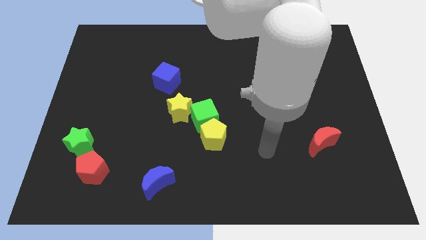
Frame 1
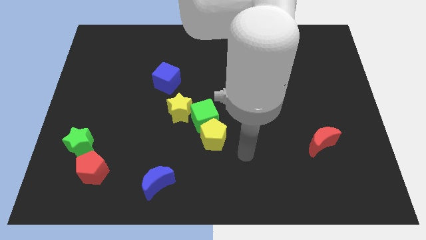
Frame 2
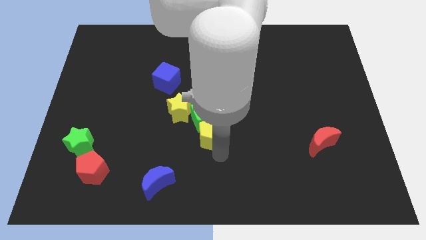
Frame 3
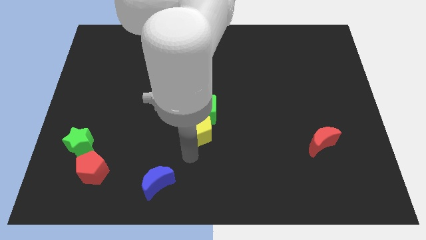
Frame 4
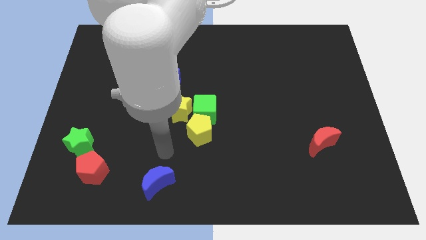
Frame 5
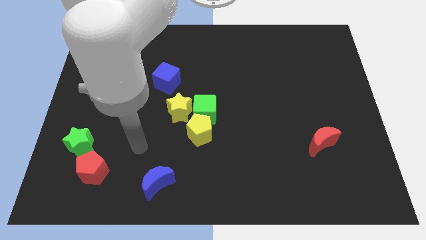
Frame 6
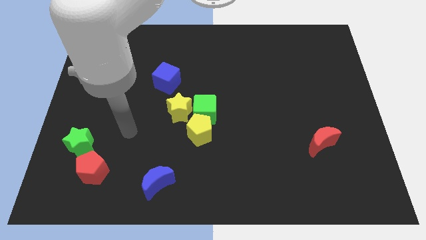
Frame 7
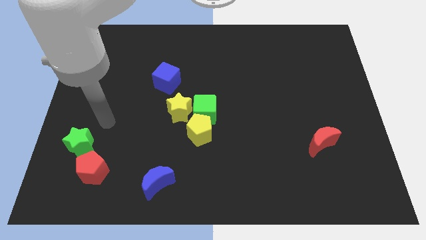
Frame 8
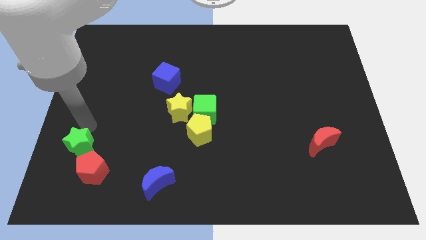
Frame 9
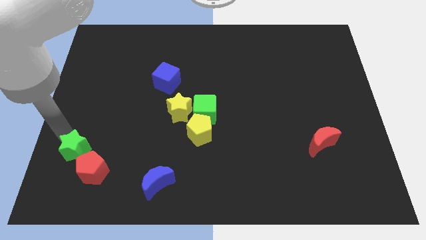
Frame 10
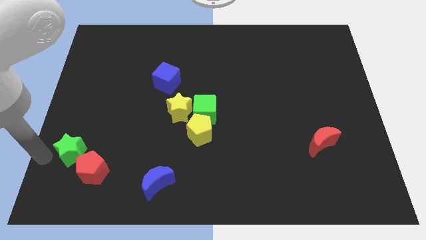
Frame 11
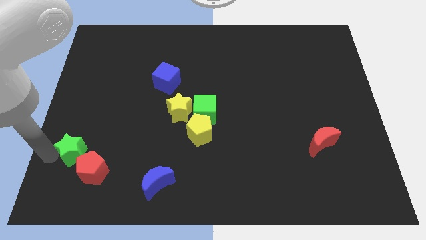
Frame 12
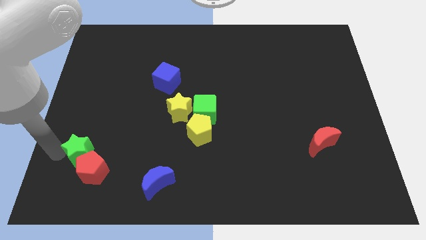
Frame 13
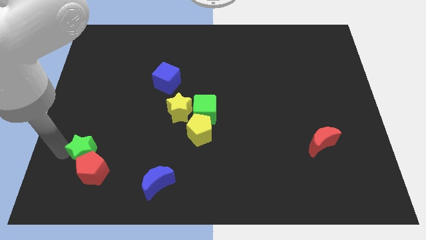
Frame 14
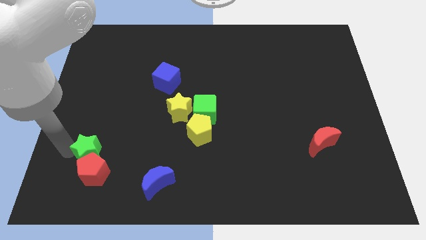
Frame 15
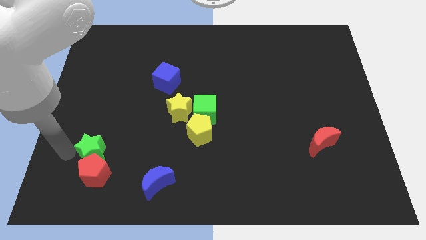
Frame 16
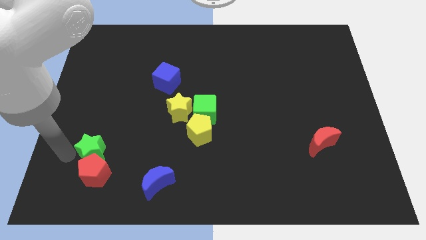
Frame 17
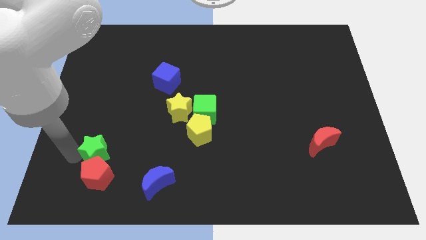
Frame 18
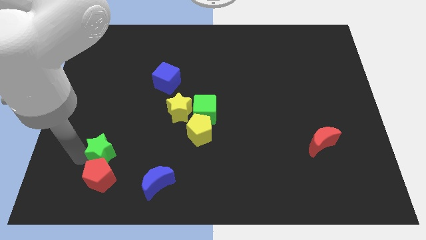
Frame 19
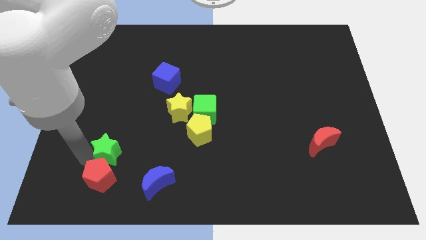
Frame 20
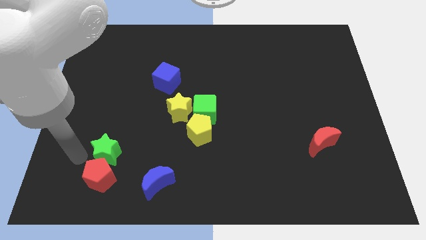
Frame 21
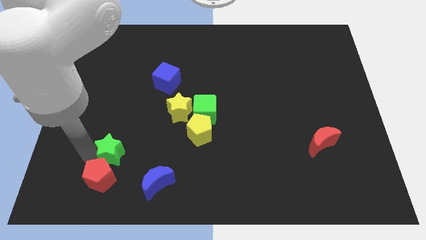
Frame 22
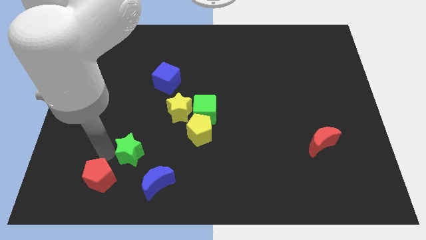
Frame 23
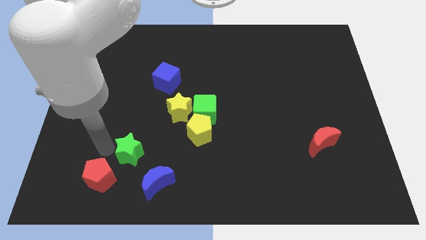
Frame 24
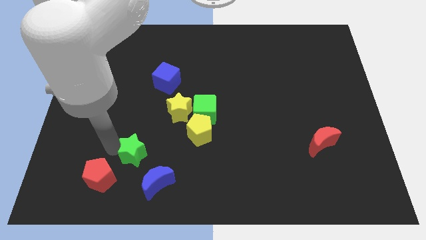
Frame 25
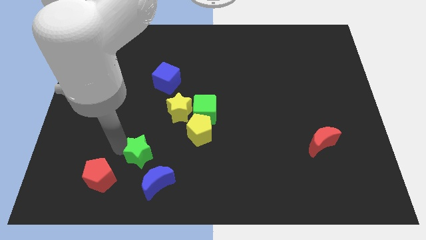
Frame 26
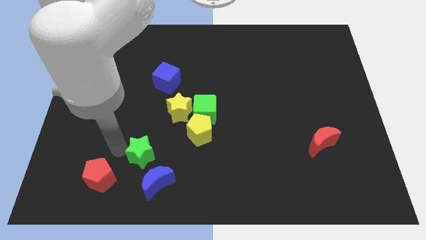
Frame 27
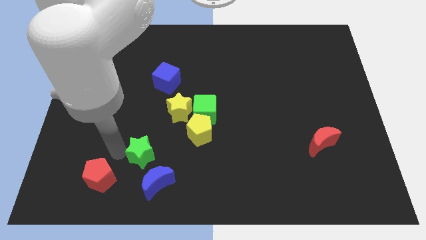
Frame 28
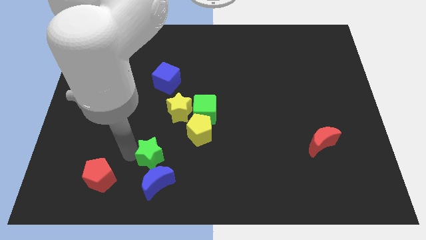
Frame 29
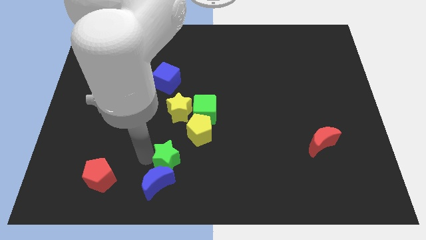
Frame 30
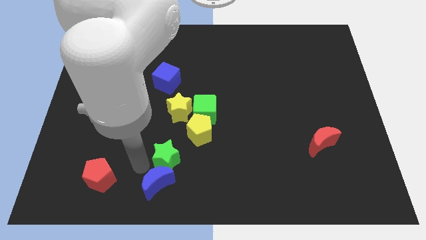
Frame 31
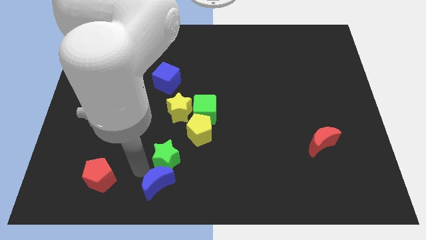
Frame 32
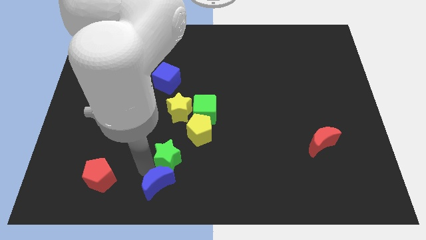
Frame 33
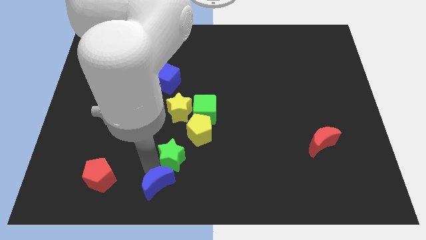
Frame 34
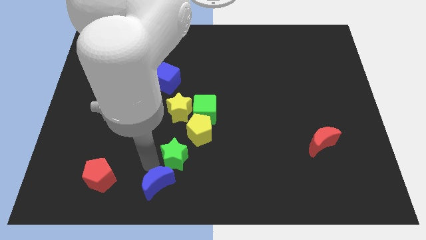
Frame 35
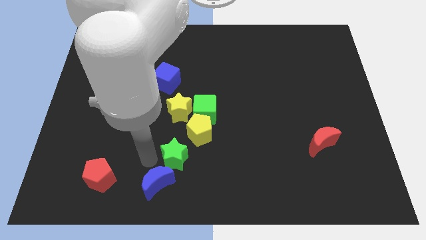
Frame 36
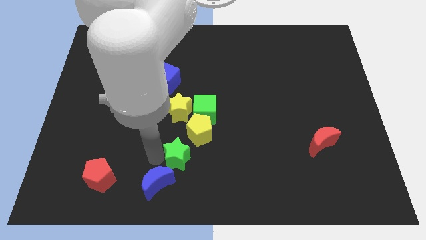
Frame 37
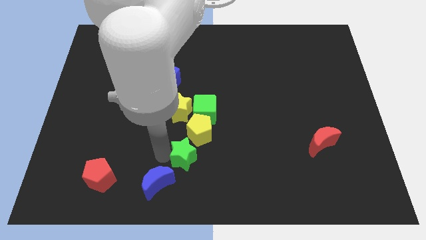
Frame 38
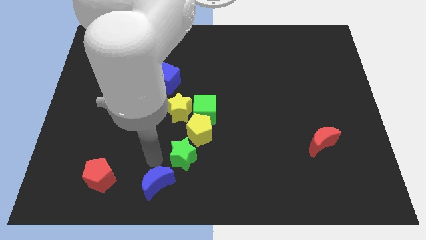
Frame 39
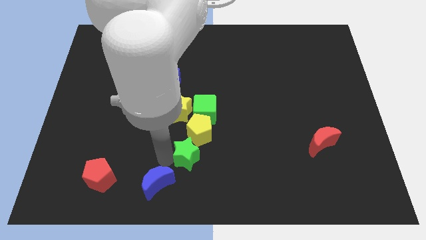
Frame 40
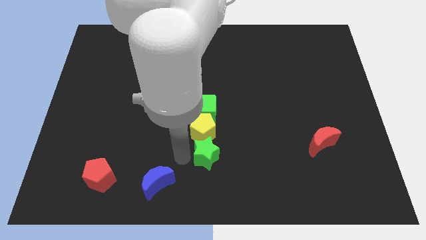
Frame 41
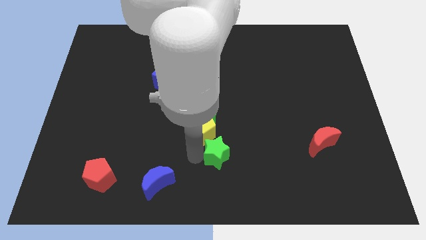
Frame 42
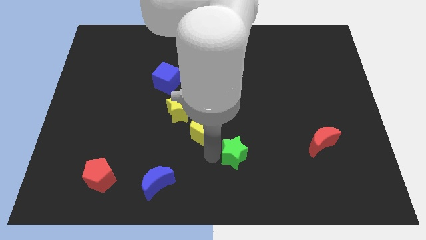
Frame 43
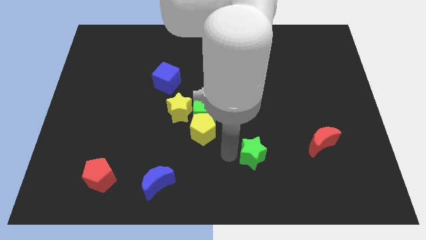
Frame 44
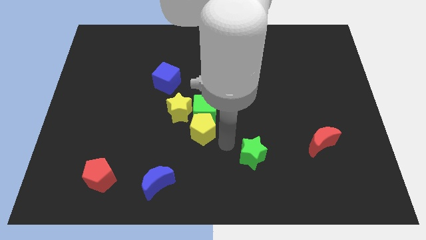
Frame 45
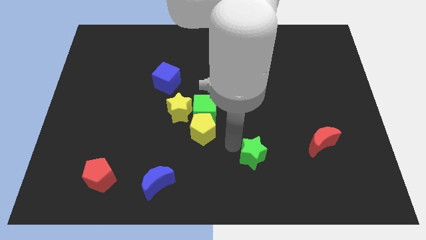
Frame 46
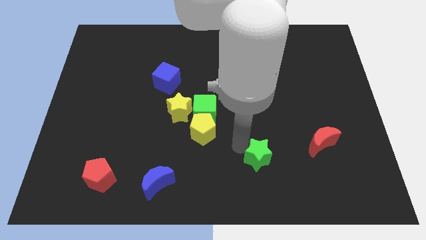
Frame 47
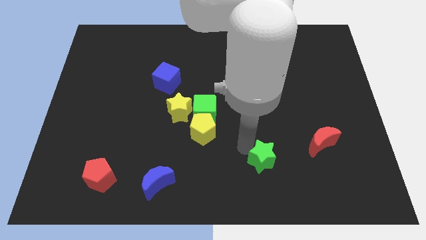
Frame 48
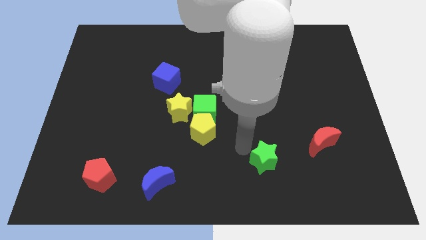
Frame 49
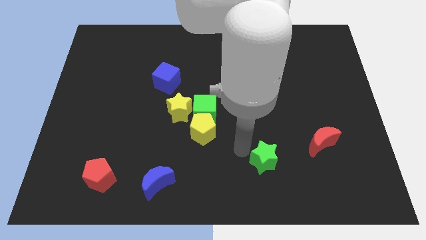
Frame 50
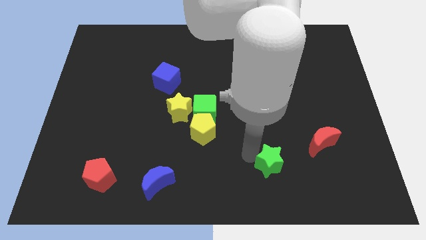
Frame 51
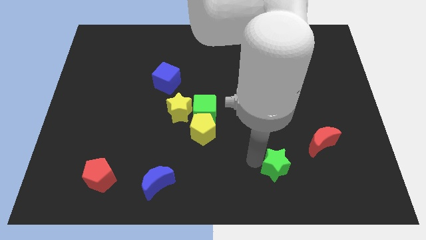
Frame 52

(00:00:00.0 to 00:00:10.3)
put the green star to the bottom left of the red moon

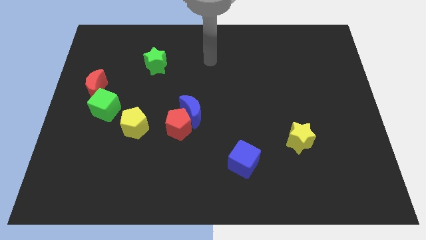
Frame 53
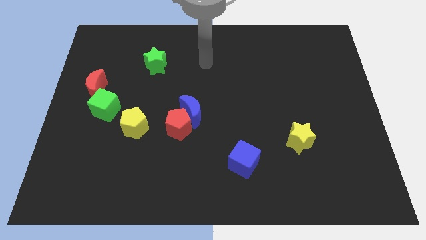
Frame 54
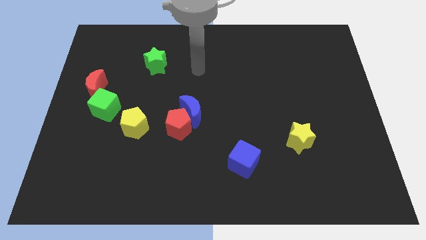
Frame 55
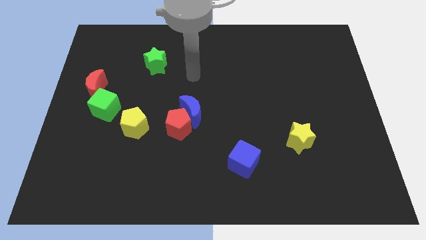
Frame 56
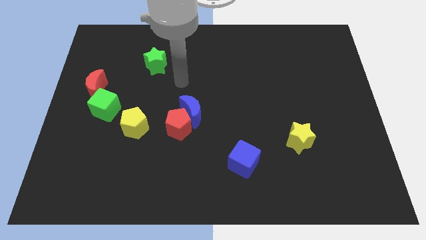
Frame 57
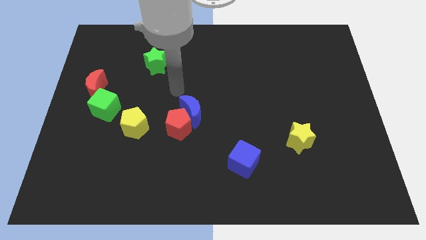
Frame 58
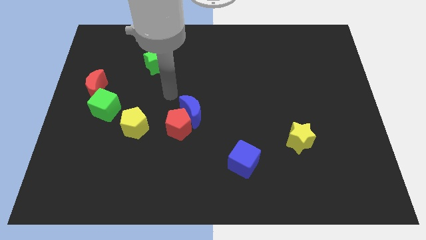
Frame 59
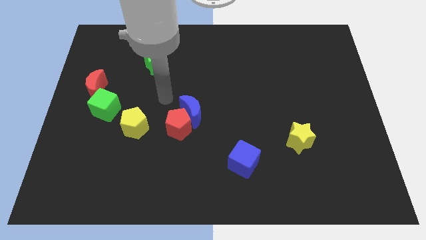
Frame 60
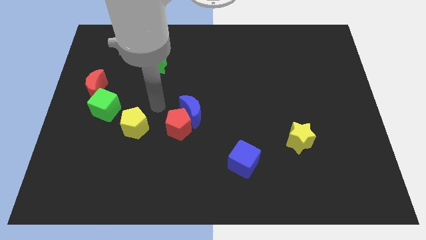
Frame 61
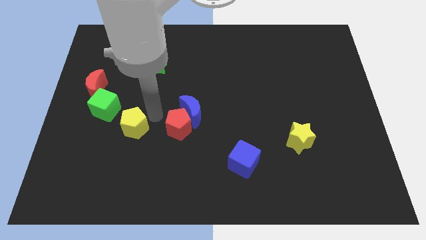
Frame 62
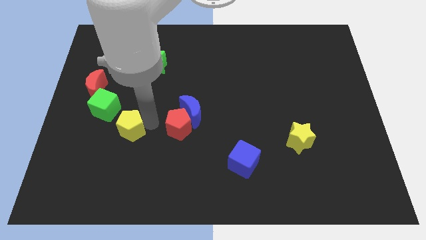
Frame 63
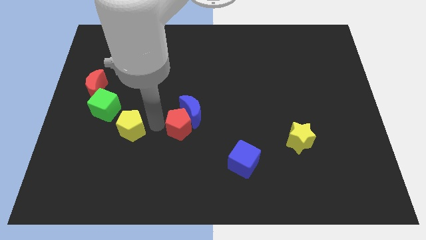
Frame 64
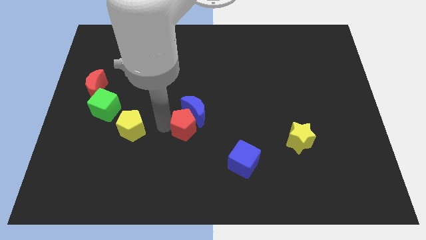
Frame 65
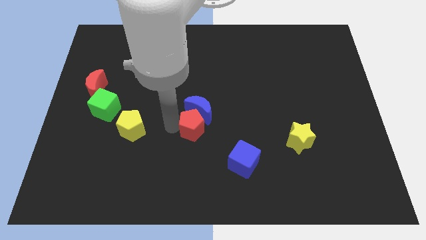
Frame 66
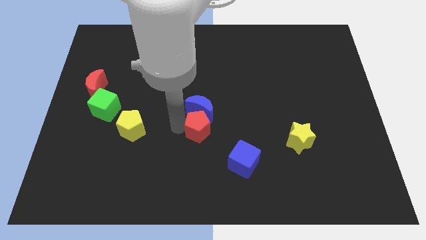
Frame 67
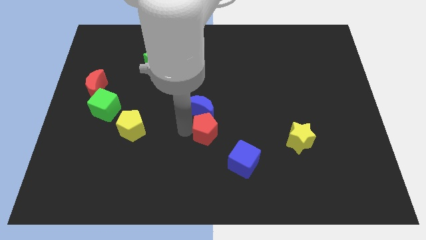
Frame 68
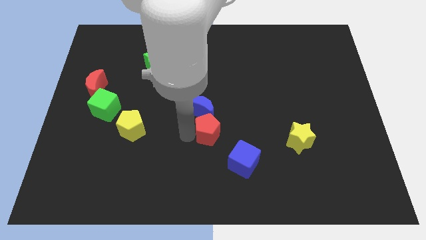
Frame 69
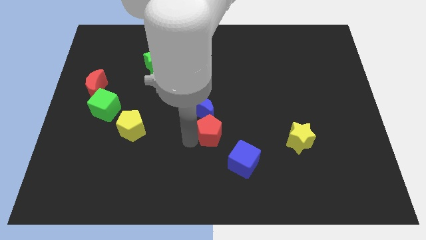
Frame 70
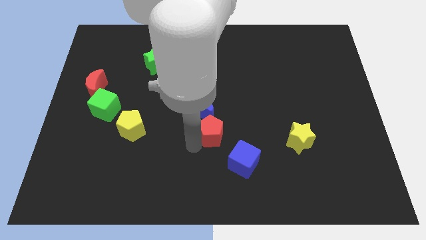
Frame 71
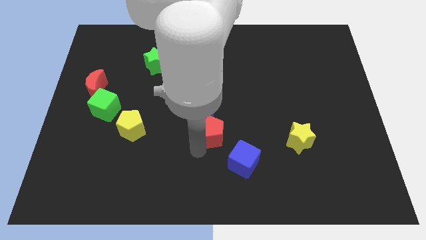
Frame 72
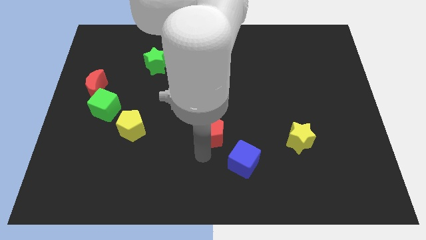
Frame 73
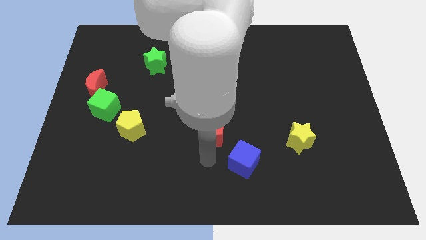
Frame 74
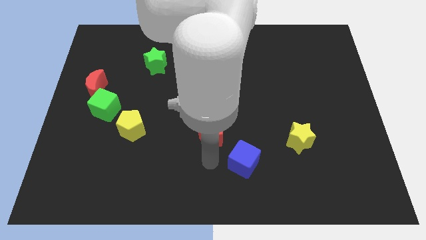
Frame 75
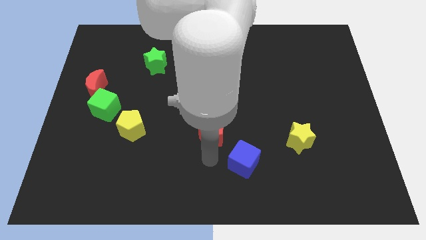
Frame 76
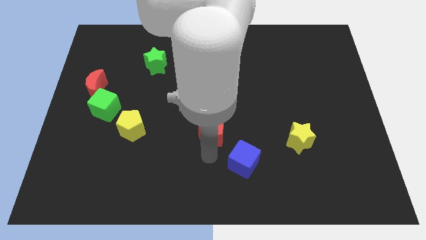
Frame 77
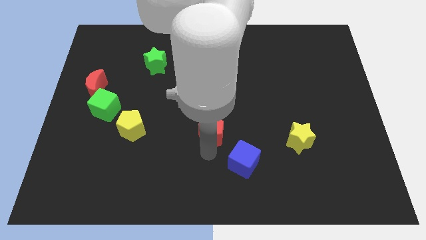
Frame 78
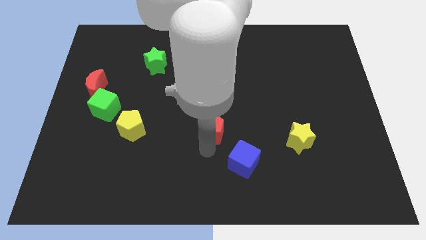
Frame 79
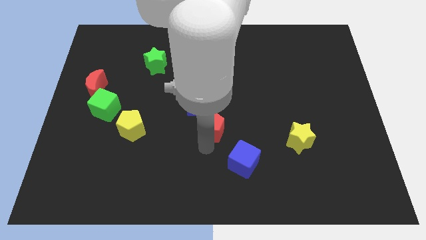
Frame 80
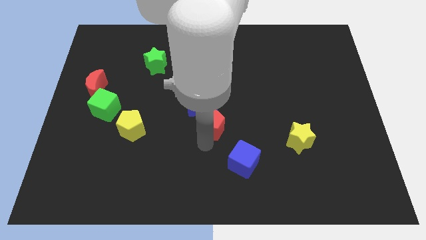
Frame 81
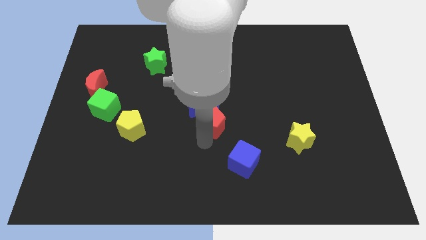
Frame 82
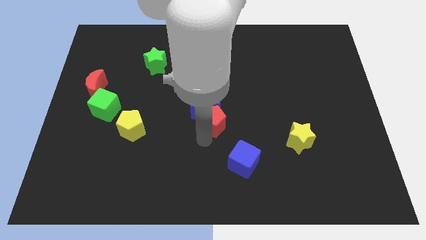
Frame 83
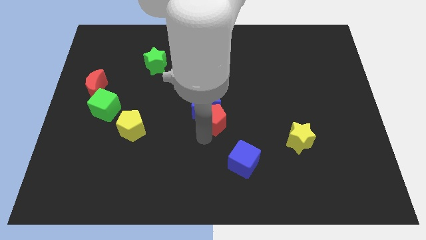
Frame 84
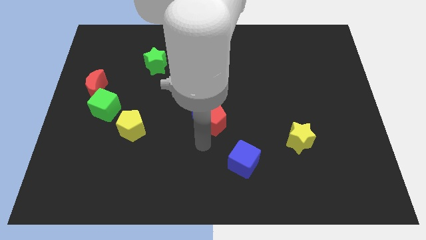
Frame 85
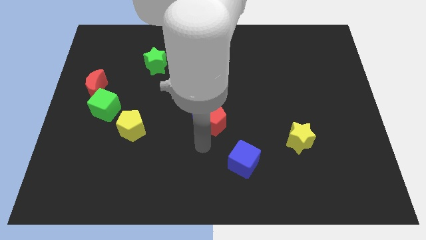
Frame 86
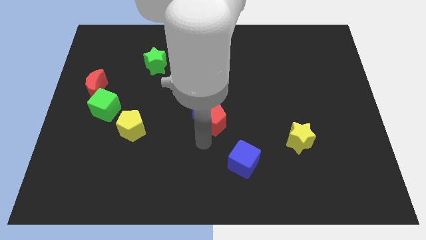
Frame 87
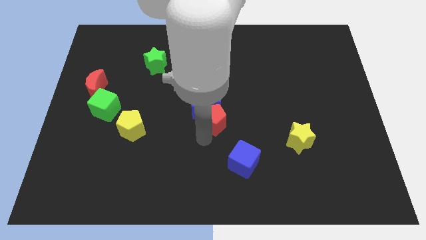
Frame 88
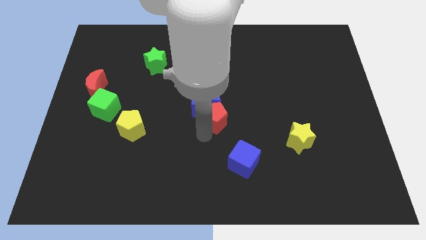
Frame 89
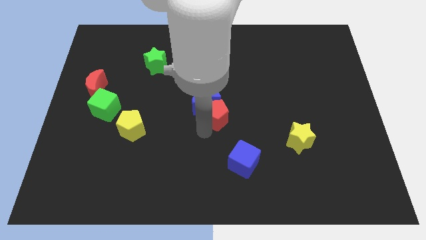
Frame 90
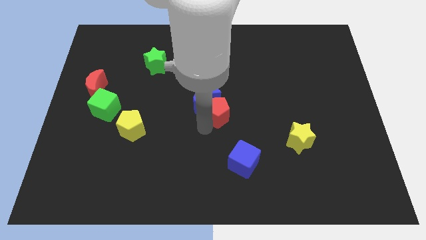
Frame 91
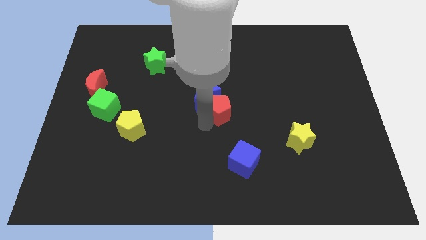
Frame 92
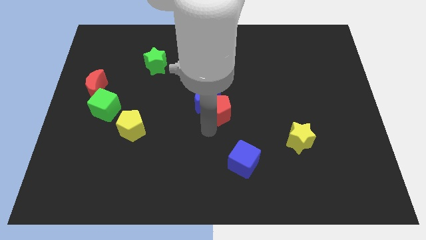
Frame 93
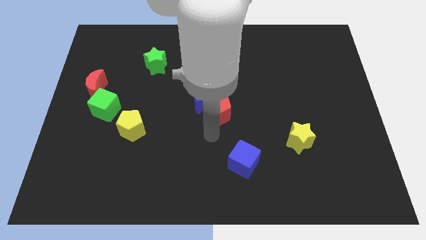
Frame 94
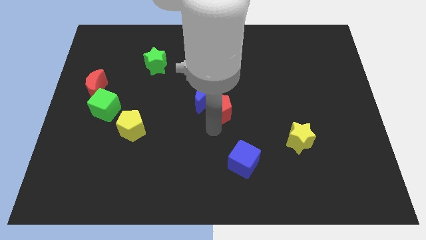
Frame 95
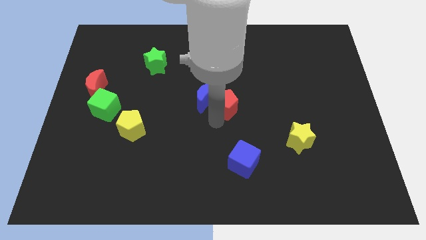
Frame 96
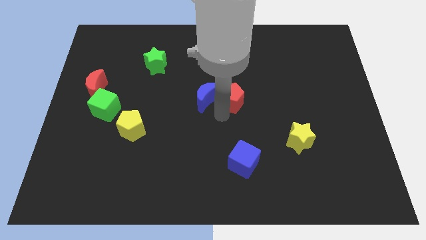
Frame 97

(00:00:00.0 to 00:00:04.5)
move the red pentagon to the top right of the blue moon
